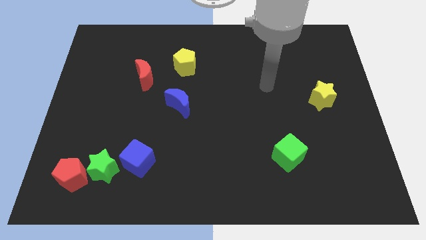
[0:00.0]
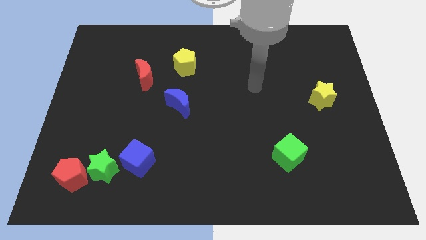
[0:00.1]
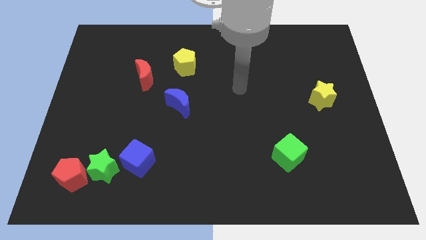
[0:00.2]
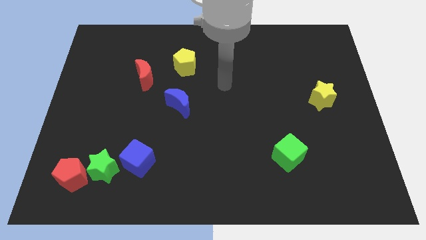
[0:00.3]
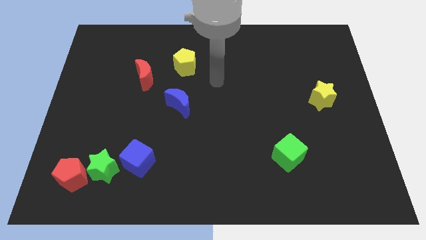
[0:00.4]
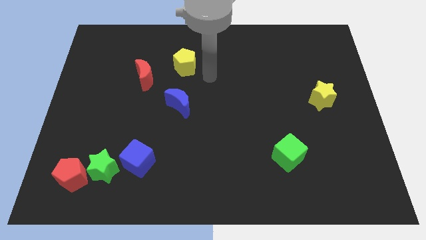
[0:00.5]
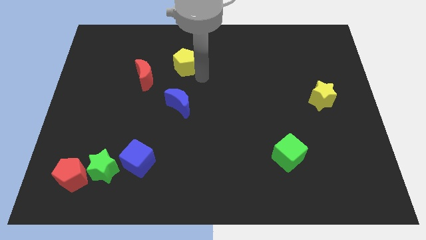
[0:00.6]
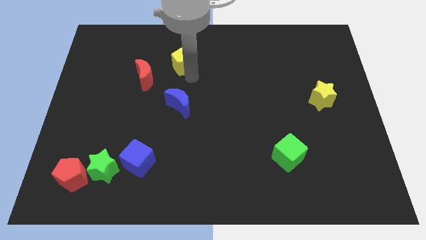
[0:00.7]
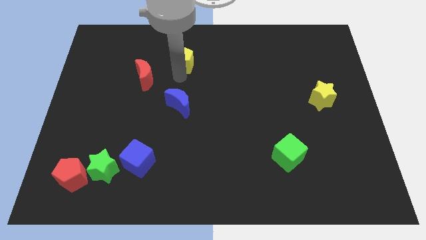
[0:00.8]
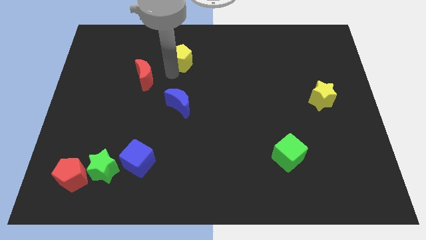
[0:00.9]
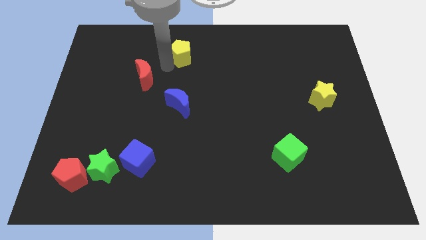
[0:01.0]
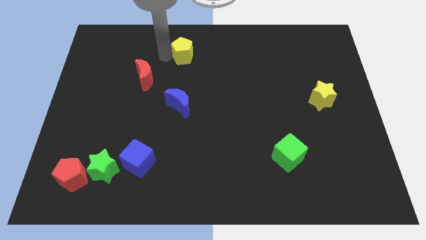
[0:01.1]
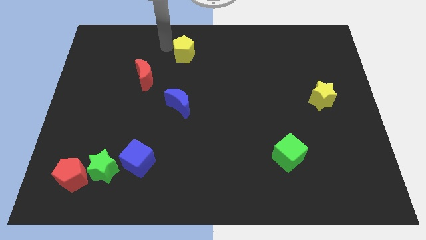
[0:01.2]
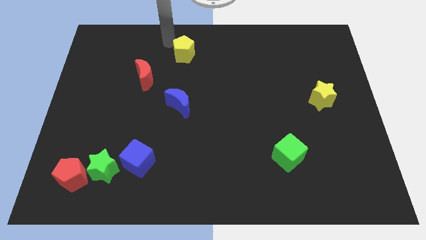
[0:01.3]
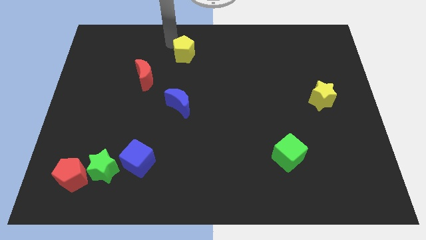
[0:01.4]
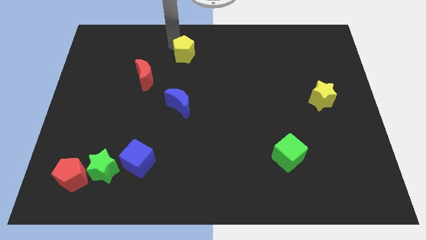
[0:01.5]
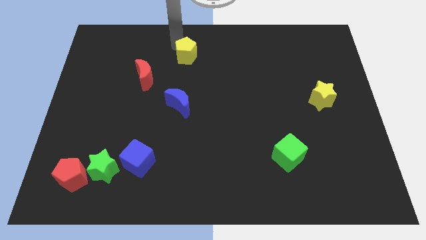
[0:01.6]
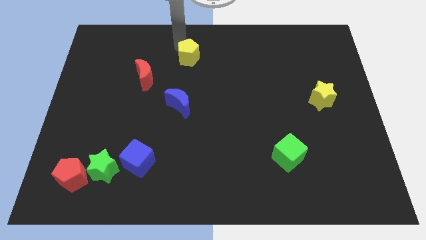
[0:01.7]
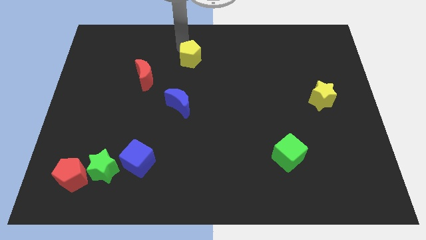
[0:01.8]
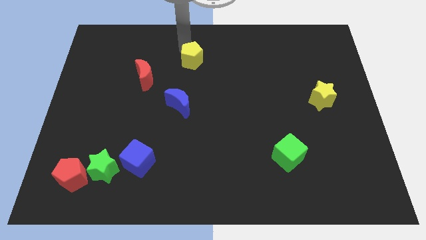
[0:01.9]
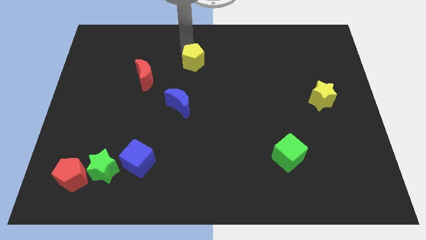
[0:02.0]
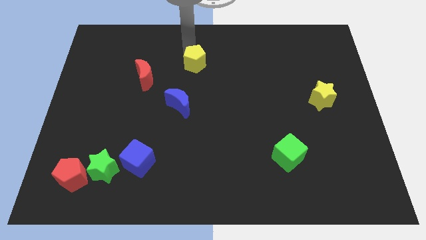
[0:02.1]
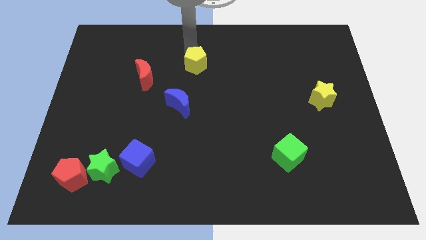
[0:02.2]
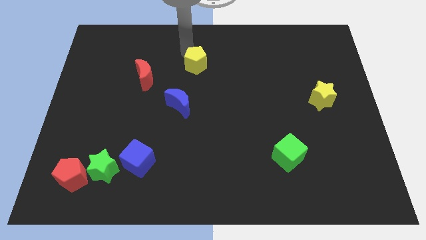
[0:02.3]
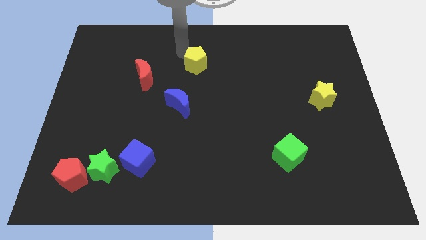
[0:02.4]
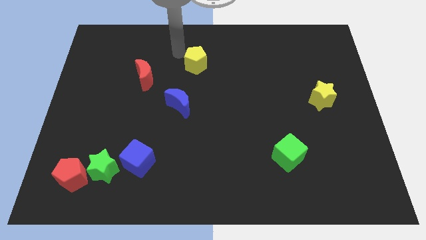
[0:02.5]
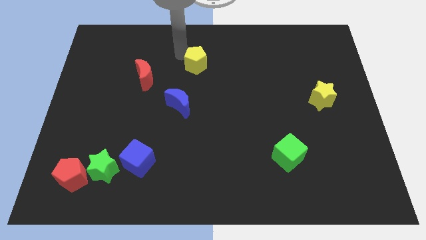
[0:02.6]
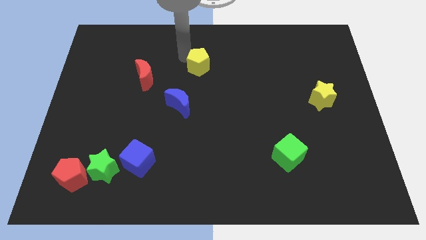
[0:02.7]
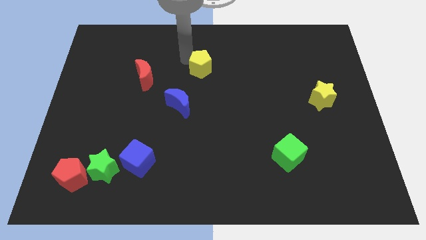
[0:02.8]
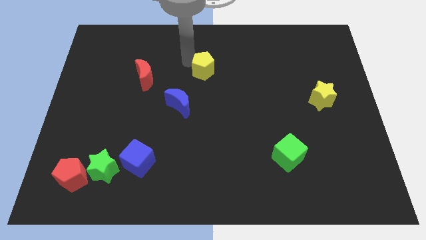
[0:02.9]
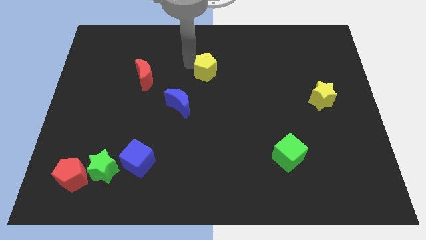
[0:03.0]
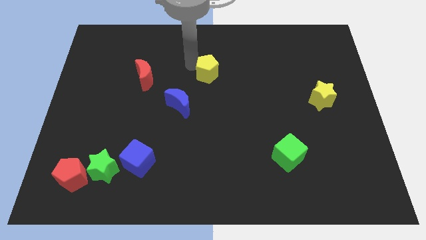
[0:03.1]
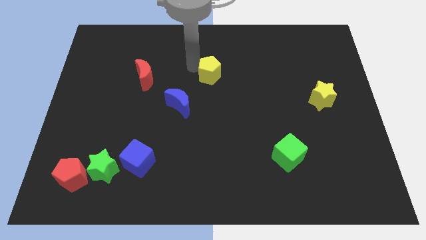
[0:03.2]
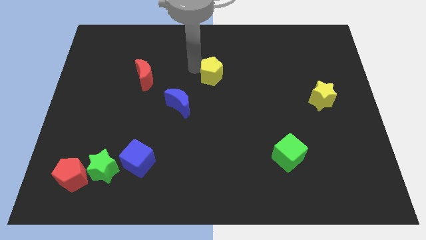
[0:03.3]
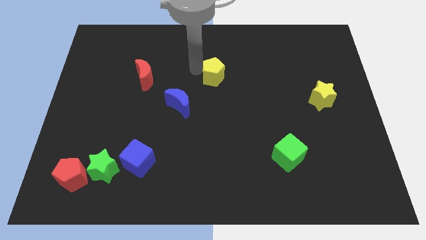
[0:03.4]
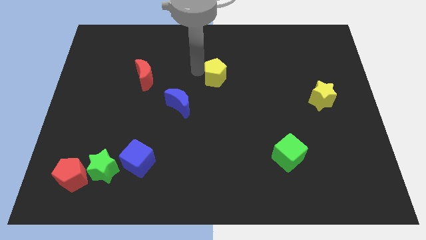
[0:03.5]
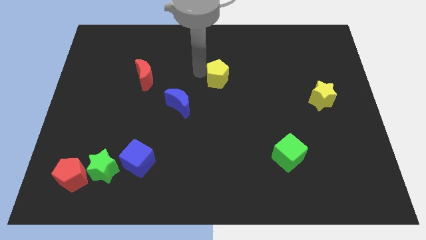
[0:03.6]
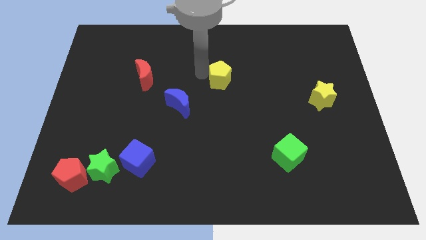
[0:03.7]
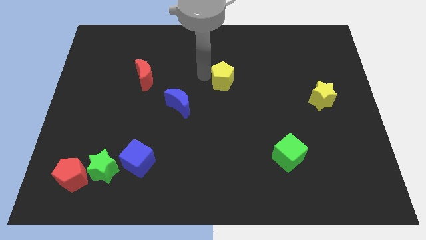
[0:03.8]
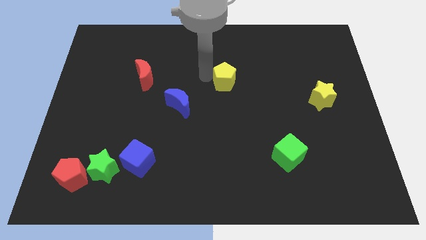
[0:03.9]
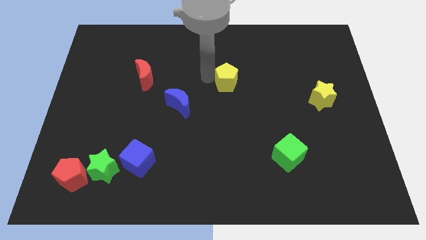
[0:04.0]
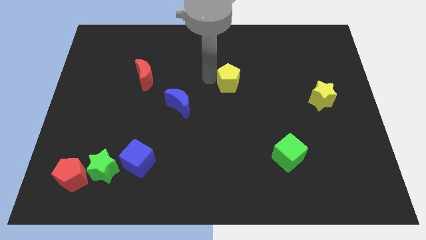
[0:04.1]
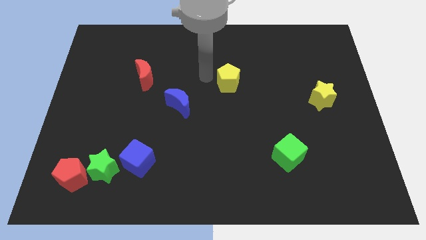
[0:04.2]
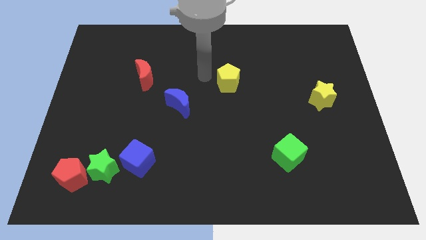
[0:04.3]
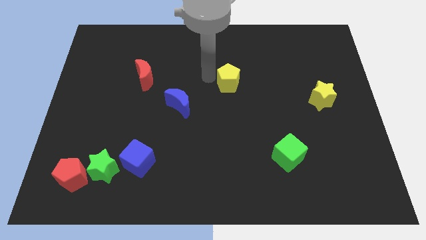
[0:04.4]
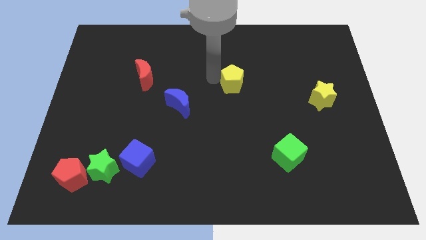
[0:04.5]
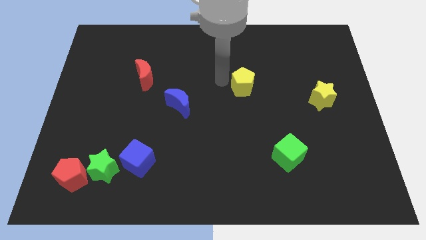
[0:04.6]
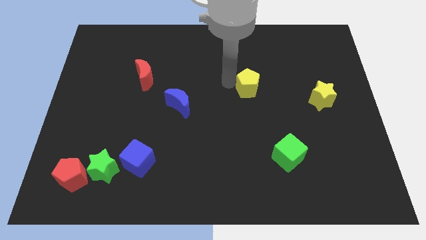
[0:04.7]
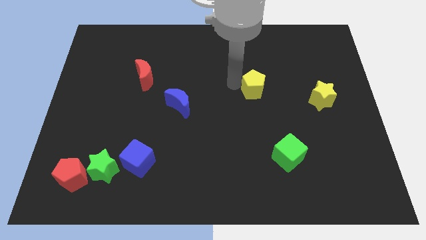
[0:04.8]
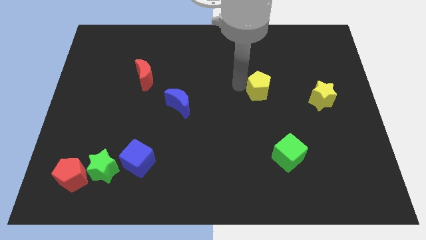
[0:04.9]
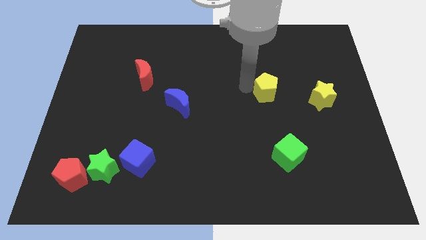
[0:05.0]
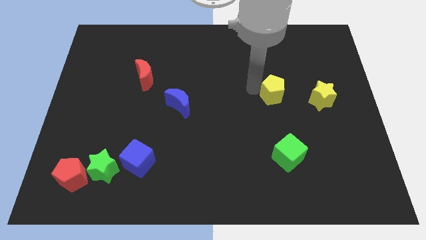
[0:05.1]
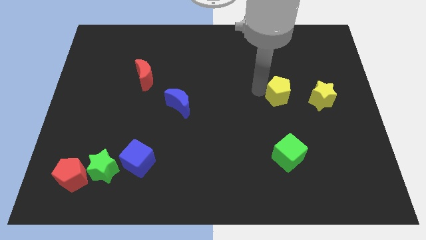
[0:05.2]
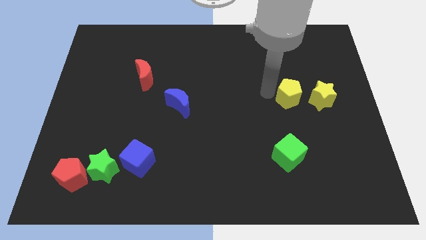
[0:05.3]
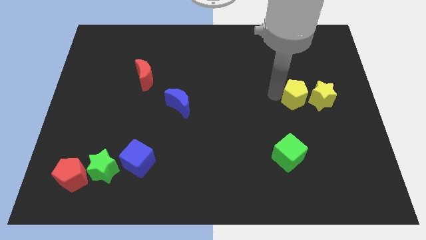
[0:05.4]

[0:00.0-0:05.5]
move the yellow pentagon close to the yellow star

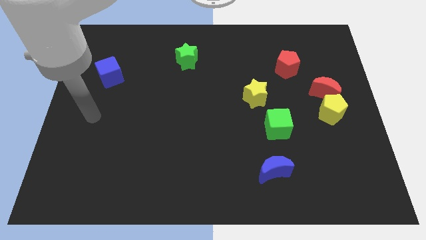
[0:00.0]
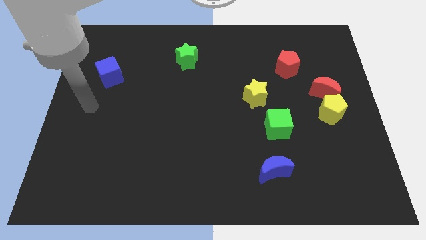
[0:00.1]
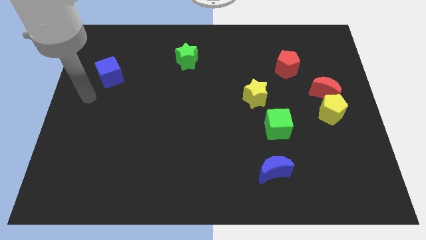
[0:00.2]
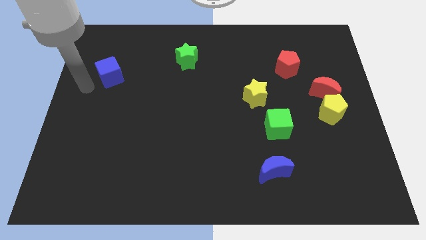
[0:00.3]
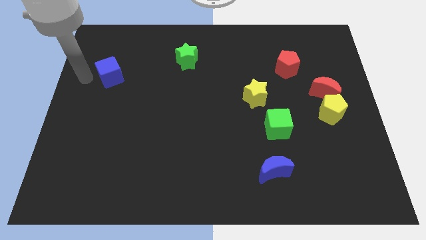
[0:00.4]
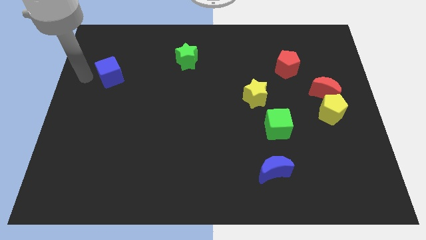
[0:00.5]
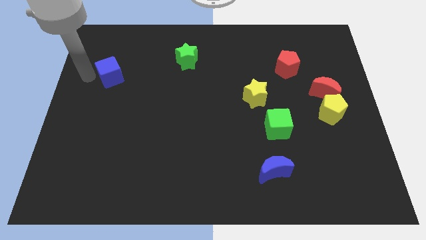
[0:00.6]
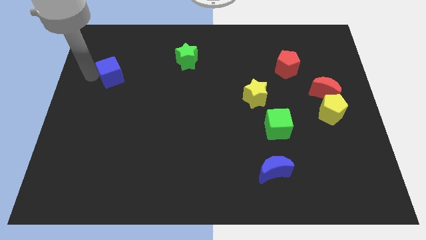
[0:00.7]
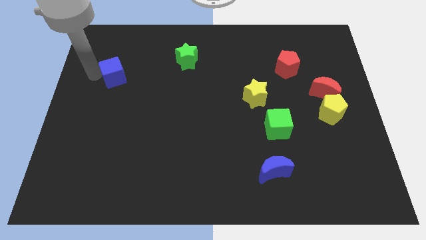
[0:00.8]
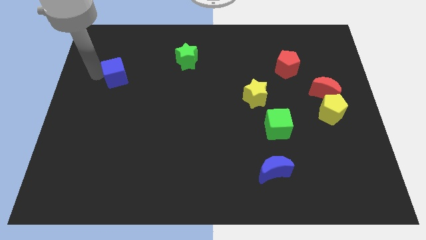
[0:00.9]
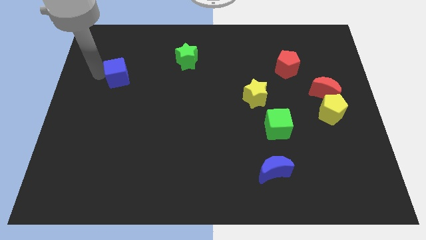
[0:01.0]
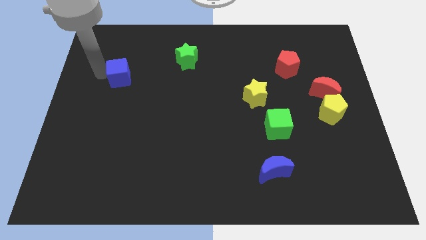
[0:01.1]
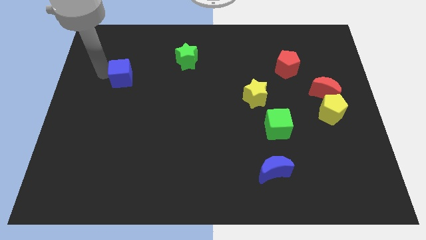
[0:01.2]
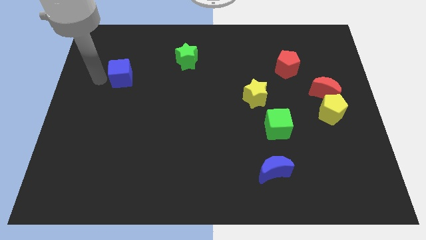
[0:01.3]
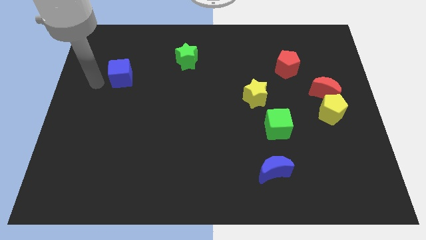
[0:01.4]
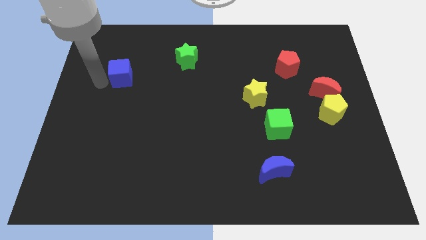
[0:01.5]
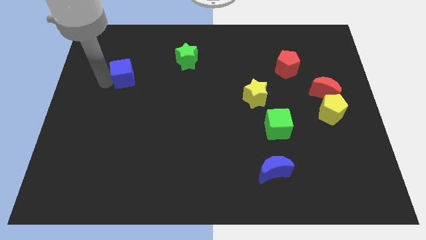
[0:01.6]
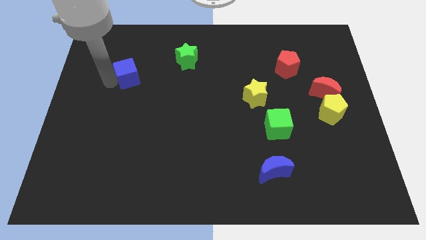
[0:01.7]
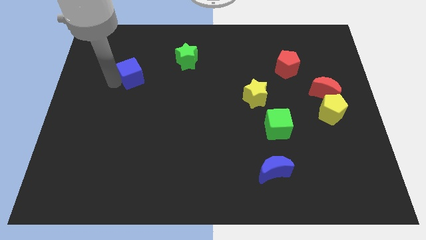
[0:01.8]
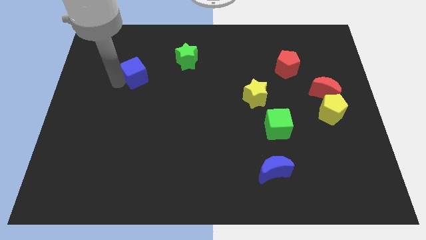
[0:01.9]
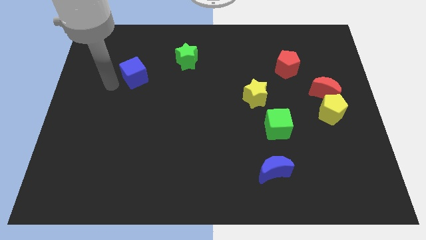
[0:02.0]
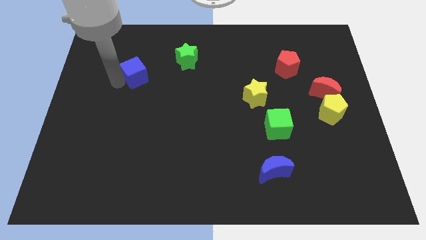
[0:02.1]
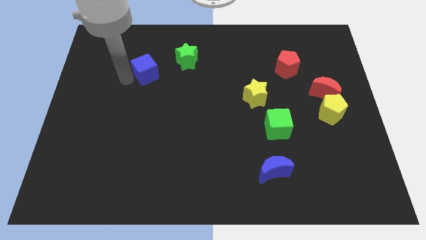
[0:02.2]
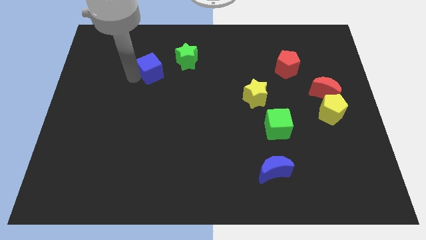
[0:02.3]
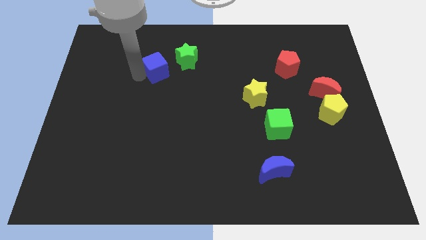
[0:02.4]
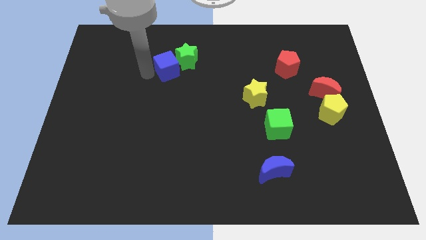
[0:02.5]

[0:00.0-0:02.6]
slide the blue cube towards the green star
